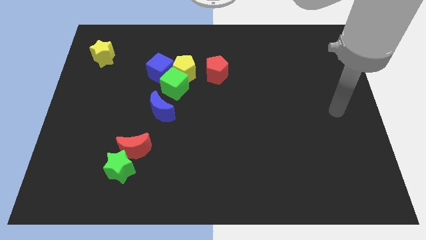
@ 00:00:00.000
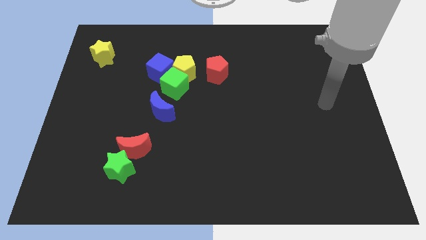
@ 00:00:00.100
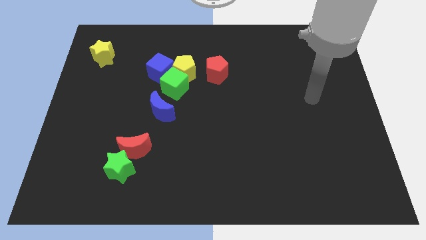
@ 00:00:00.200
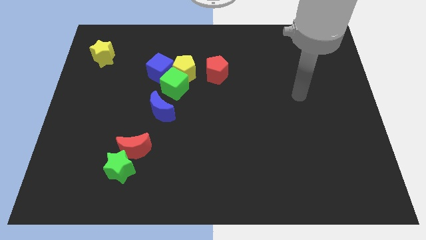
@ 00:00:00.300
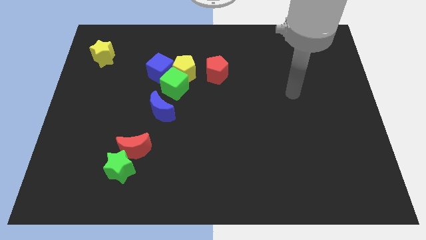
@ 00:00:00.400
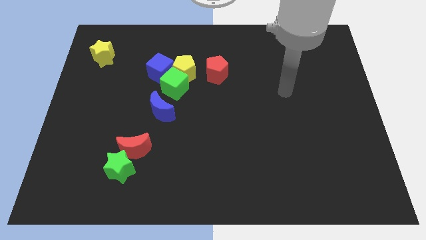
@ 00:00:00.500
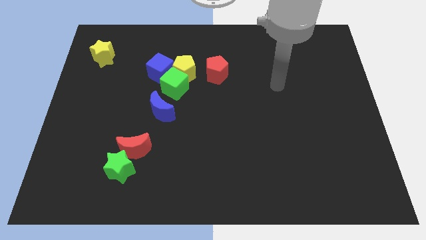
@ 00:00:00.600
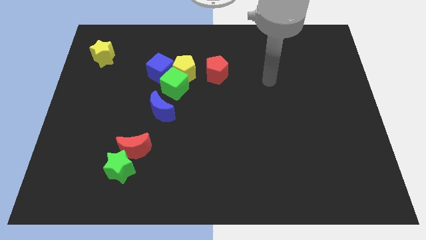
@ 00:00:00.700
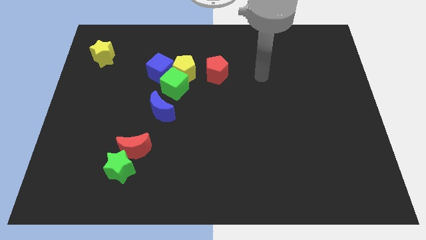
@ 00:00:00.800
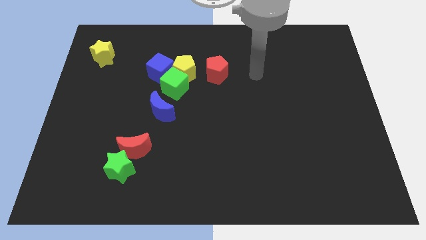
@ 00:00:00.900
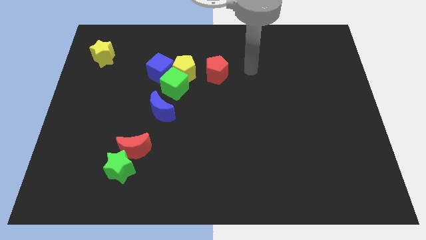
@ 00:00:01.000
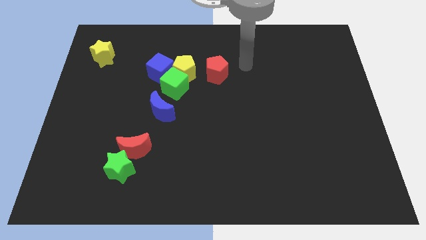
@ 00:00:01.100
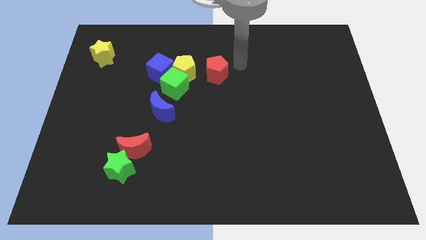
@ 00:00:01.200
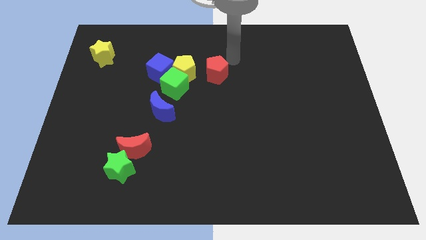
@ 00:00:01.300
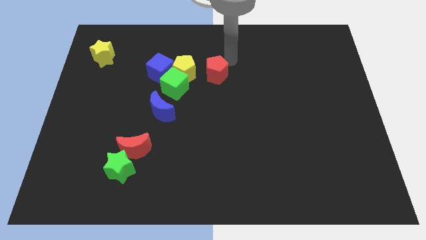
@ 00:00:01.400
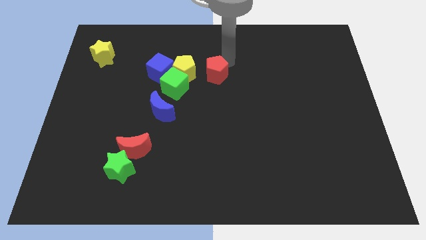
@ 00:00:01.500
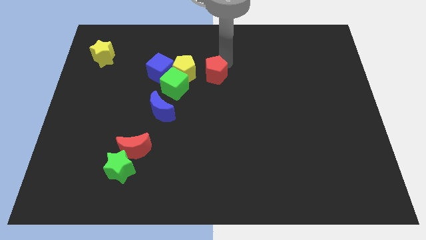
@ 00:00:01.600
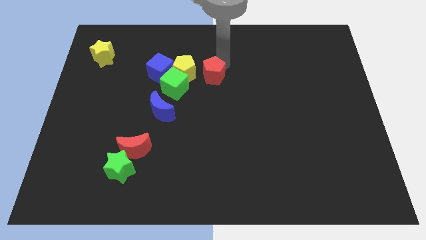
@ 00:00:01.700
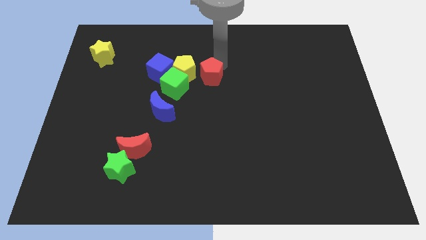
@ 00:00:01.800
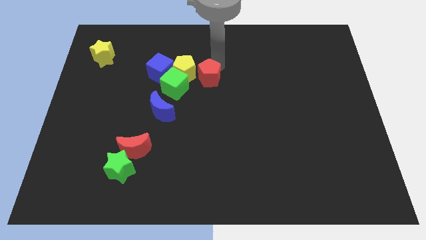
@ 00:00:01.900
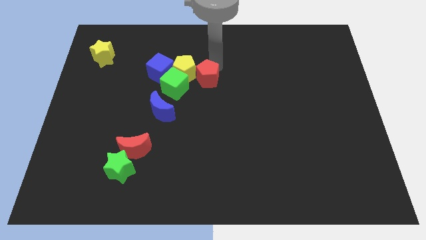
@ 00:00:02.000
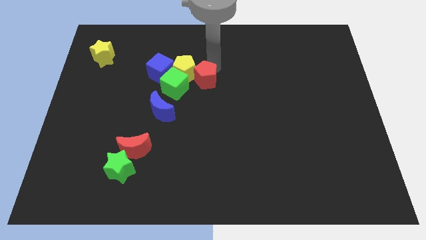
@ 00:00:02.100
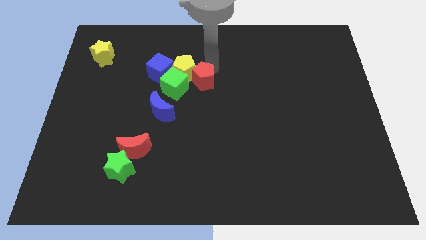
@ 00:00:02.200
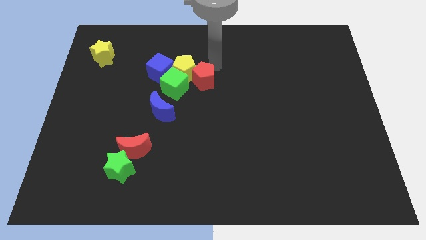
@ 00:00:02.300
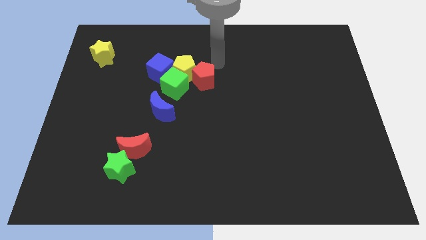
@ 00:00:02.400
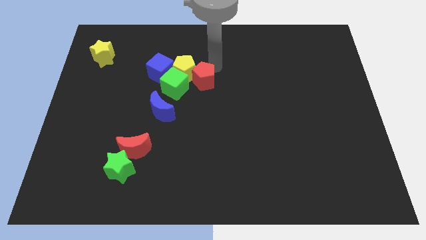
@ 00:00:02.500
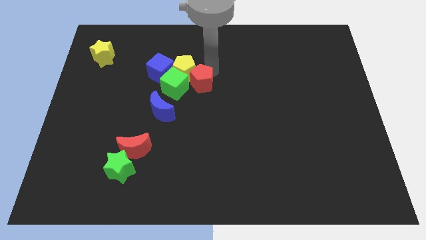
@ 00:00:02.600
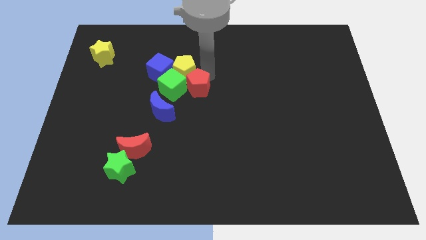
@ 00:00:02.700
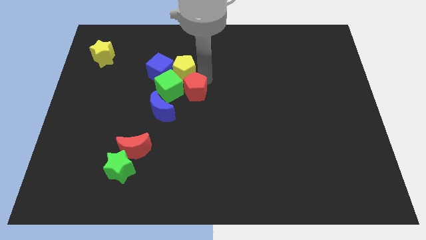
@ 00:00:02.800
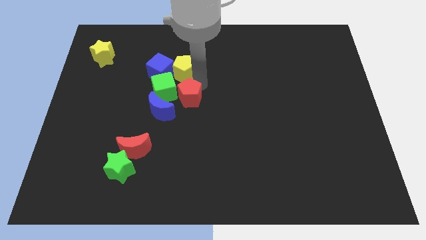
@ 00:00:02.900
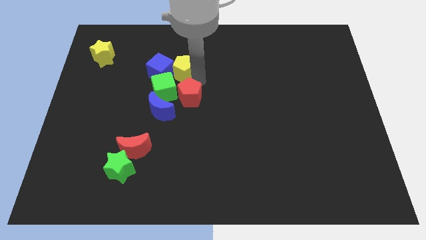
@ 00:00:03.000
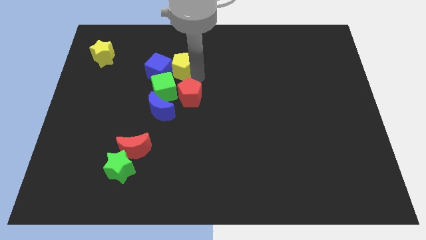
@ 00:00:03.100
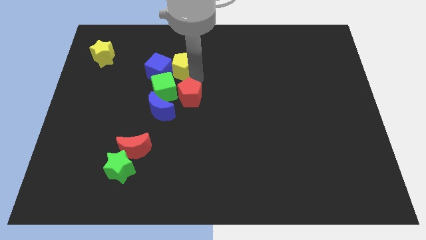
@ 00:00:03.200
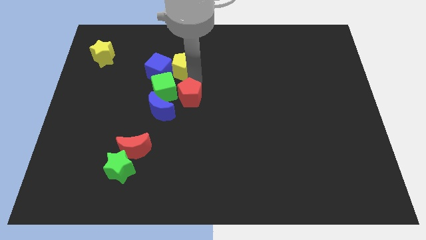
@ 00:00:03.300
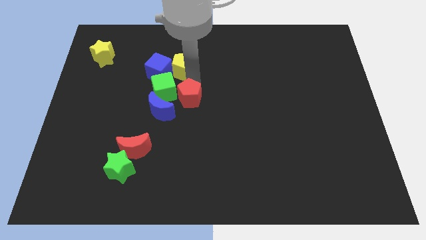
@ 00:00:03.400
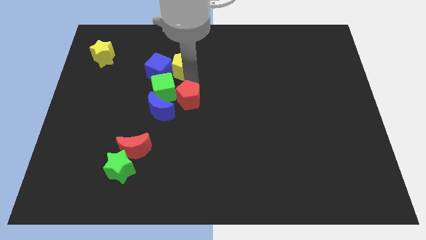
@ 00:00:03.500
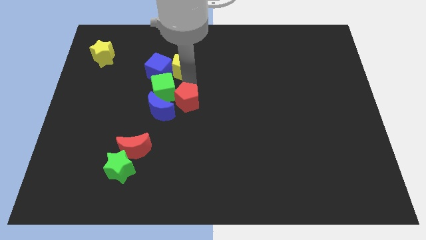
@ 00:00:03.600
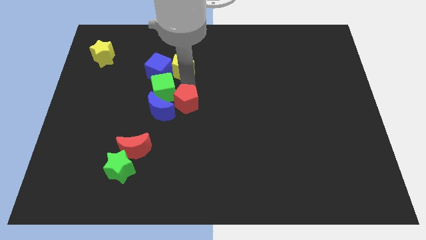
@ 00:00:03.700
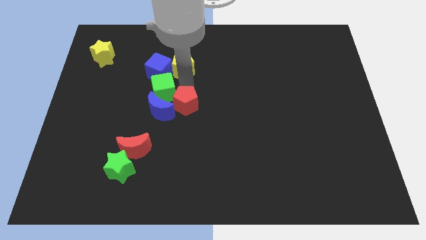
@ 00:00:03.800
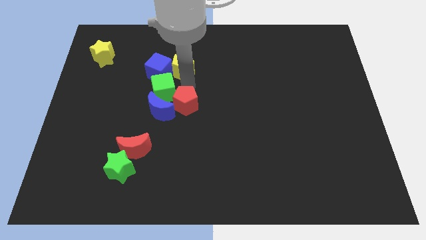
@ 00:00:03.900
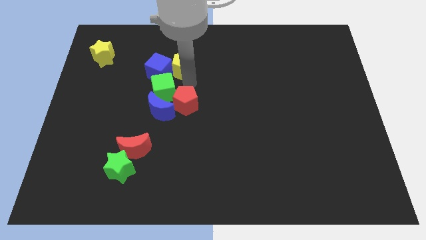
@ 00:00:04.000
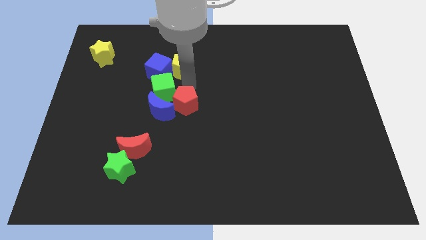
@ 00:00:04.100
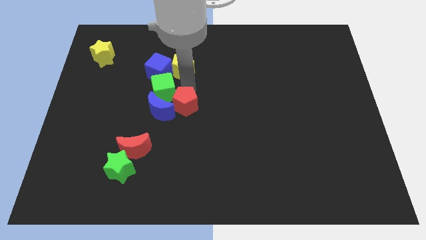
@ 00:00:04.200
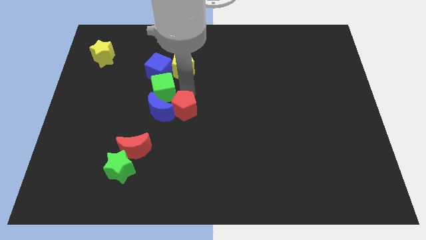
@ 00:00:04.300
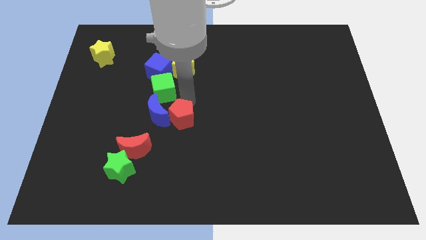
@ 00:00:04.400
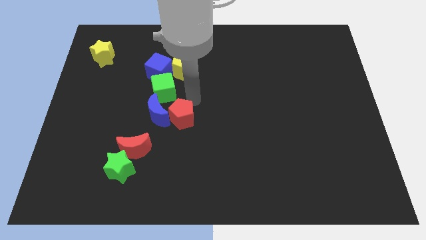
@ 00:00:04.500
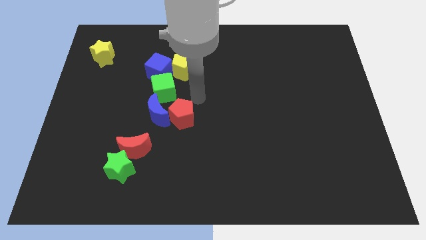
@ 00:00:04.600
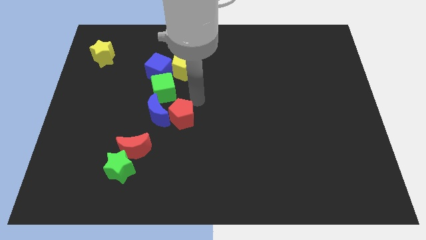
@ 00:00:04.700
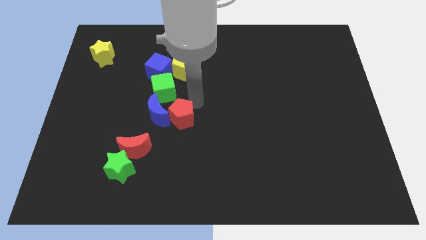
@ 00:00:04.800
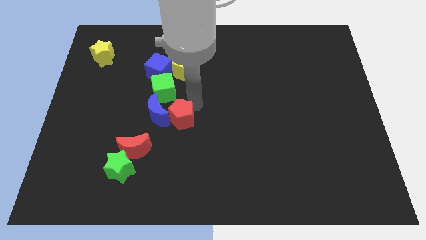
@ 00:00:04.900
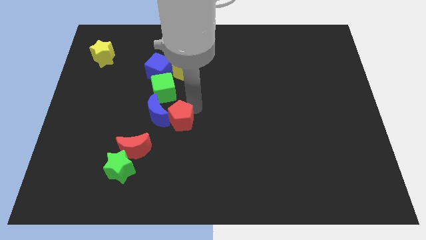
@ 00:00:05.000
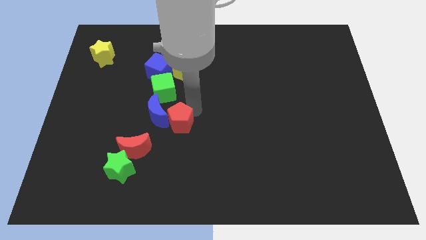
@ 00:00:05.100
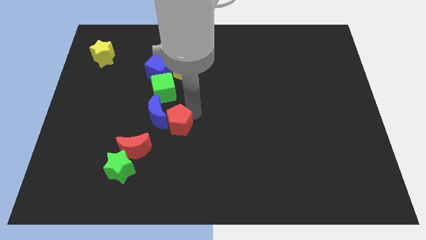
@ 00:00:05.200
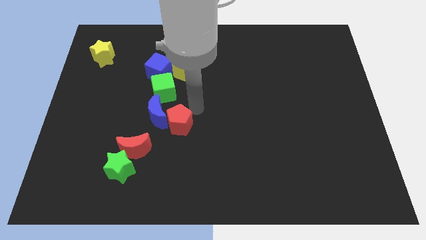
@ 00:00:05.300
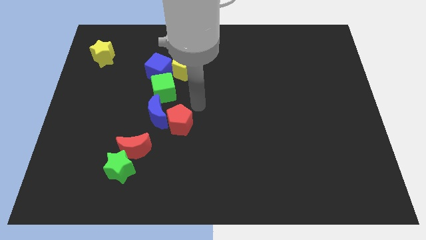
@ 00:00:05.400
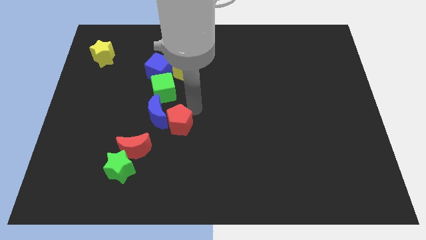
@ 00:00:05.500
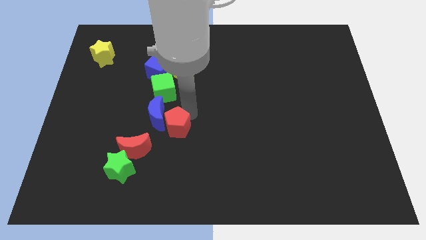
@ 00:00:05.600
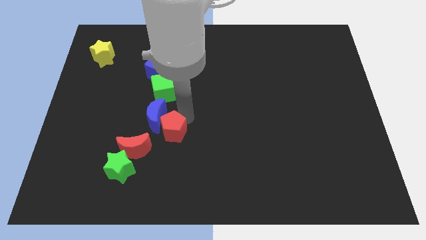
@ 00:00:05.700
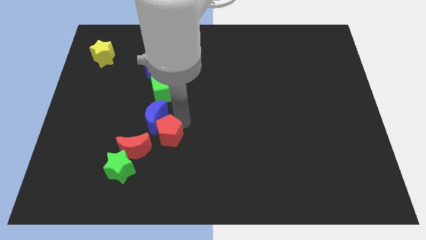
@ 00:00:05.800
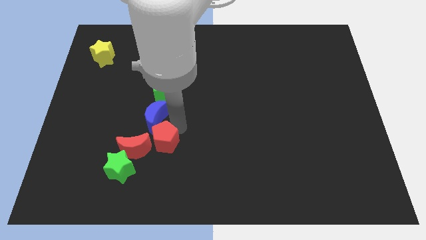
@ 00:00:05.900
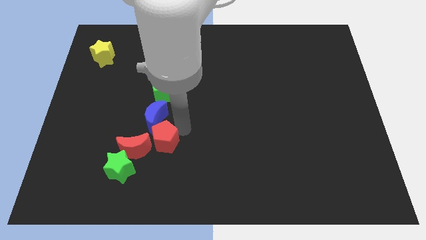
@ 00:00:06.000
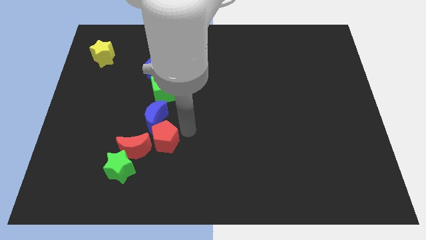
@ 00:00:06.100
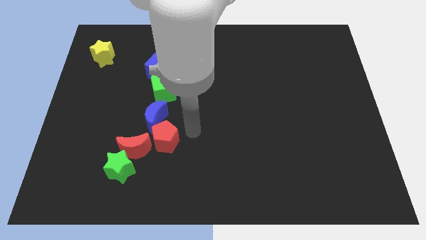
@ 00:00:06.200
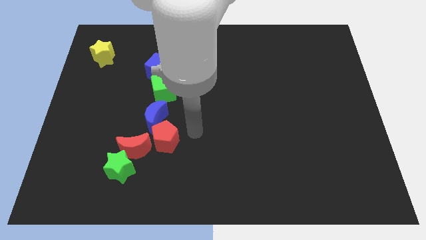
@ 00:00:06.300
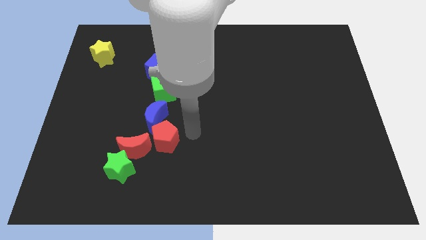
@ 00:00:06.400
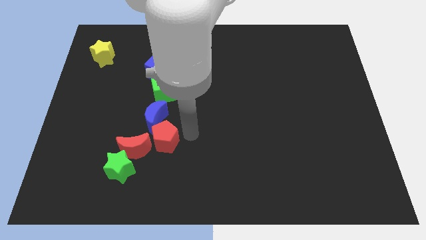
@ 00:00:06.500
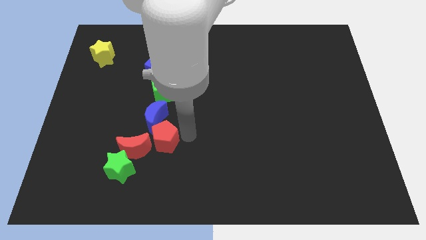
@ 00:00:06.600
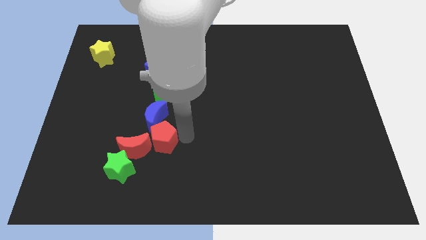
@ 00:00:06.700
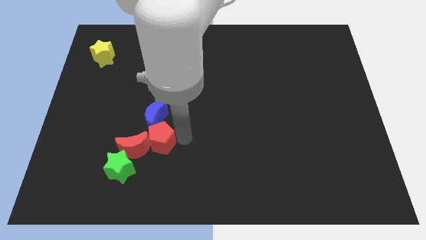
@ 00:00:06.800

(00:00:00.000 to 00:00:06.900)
move the red pentagon to the red moon

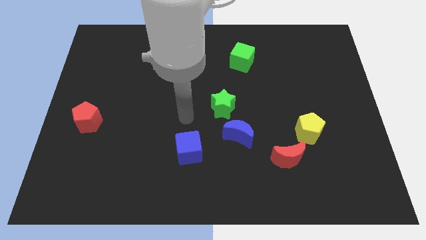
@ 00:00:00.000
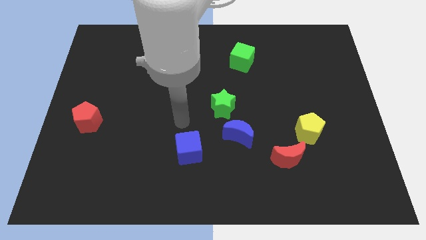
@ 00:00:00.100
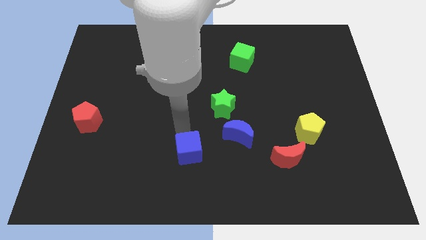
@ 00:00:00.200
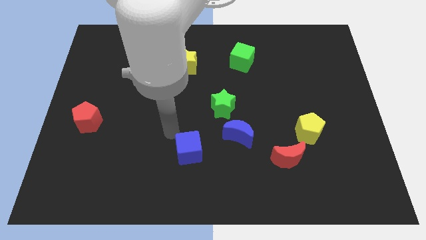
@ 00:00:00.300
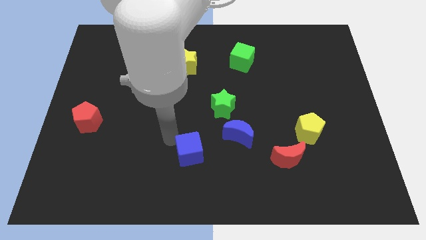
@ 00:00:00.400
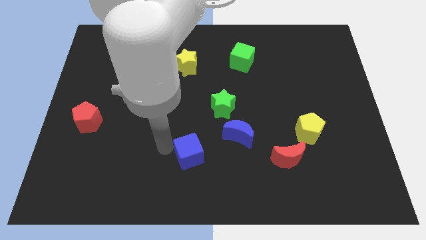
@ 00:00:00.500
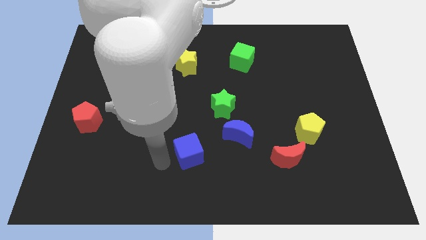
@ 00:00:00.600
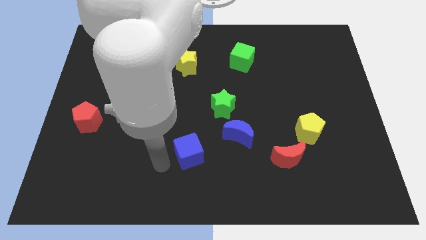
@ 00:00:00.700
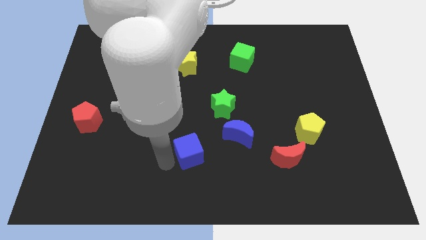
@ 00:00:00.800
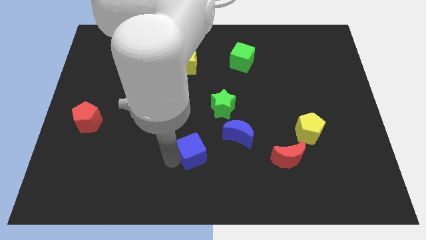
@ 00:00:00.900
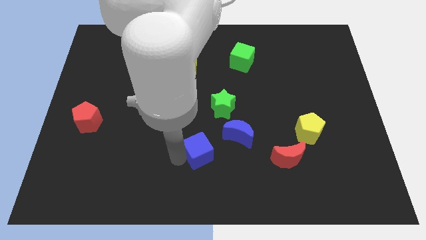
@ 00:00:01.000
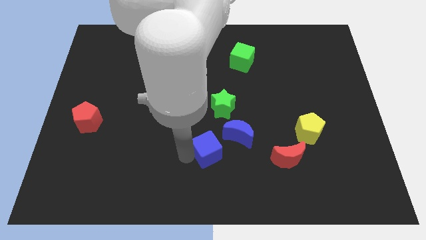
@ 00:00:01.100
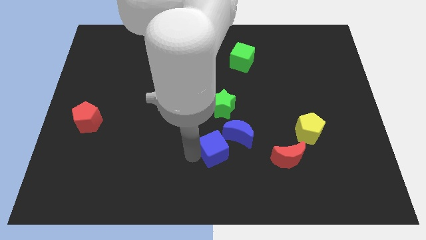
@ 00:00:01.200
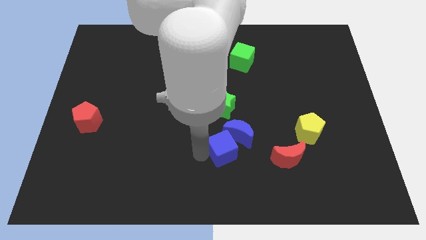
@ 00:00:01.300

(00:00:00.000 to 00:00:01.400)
slide the blue cube next to the blue moon

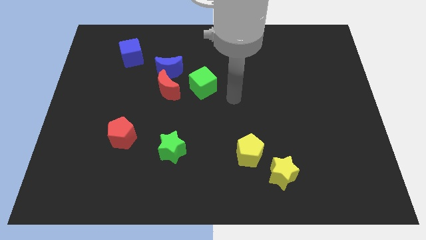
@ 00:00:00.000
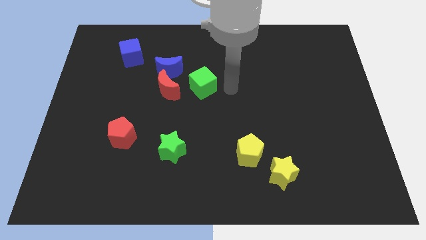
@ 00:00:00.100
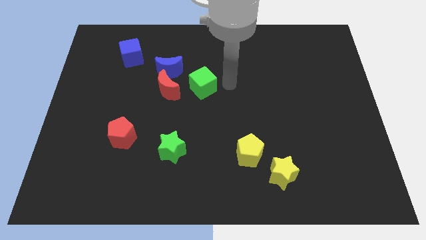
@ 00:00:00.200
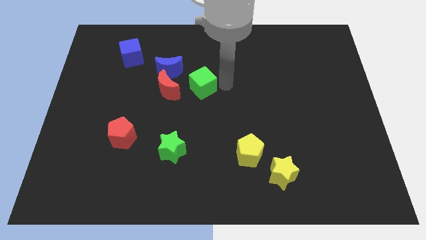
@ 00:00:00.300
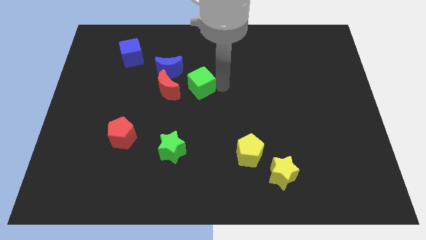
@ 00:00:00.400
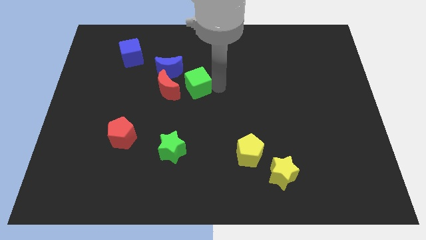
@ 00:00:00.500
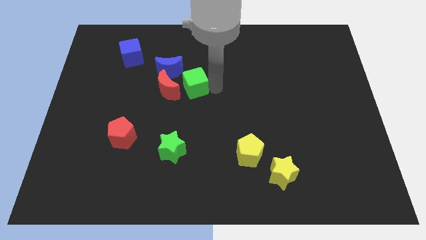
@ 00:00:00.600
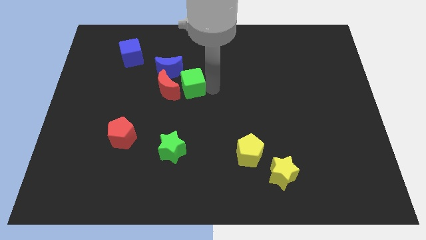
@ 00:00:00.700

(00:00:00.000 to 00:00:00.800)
slide the green cube towards the red moon
